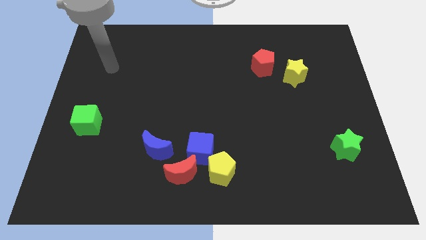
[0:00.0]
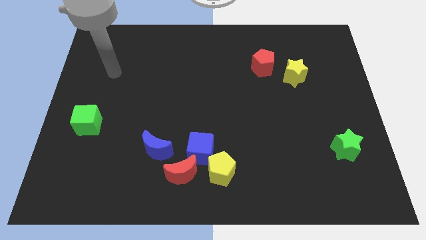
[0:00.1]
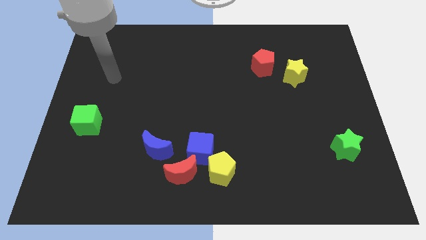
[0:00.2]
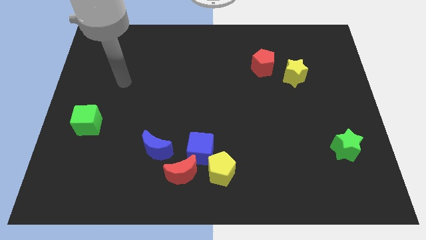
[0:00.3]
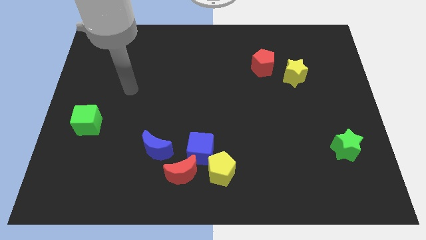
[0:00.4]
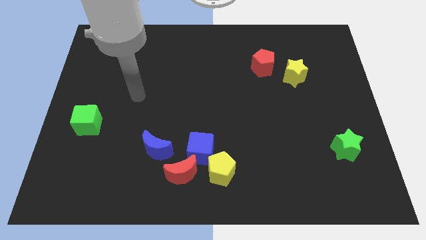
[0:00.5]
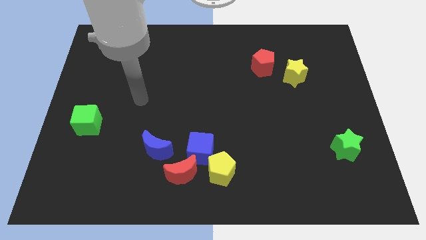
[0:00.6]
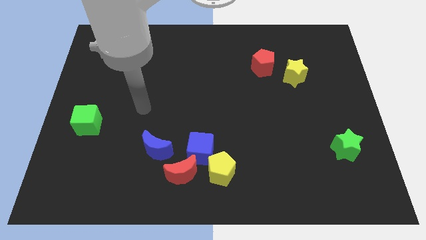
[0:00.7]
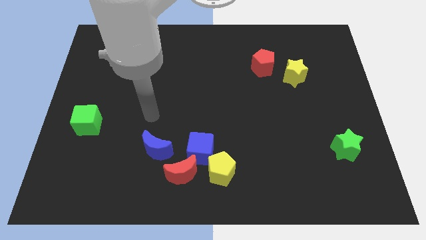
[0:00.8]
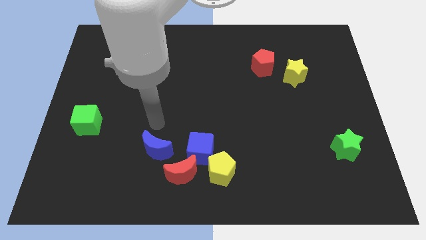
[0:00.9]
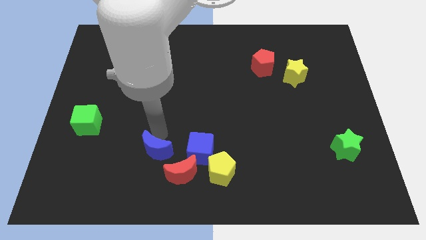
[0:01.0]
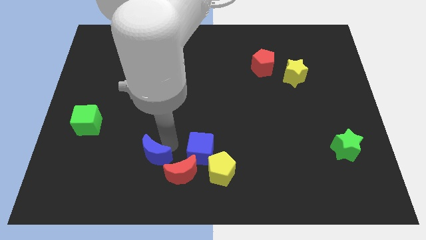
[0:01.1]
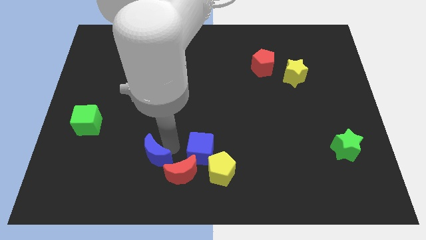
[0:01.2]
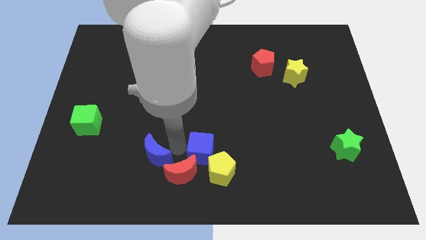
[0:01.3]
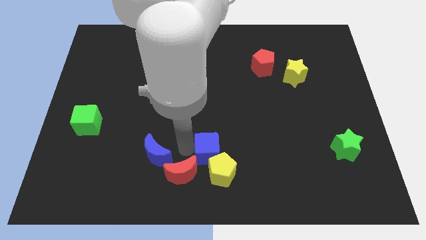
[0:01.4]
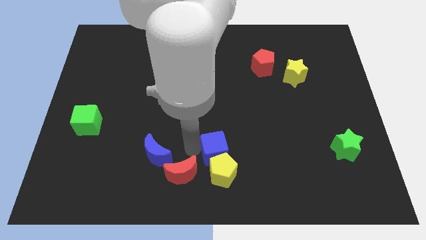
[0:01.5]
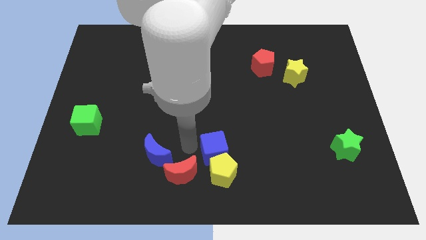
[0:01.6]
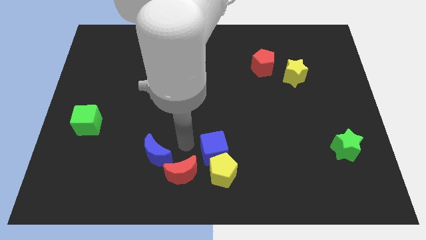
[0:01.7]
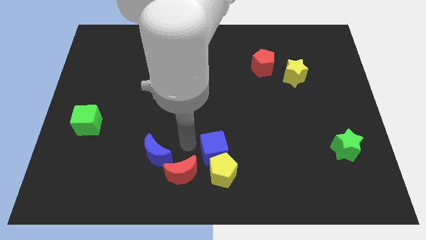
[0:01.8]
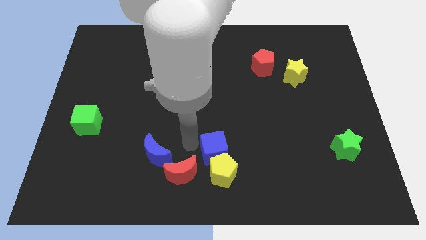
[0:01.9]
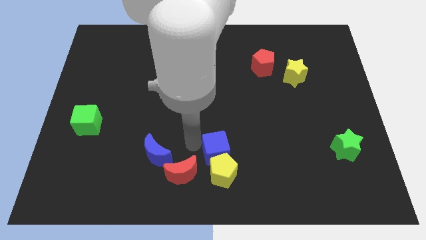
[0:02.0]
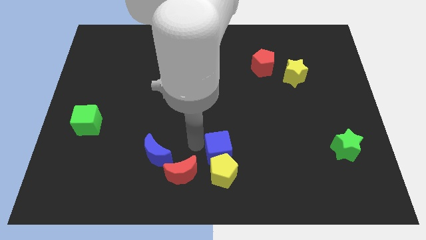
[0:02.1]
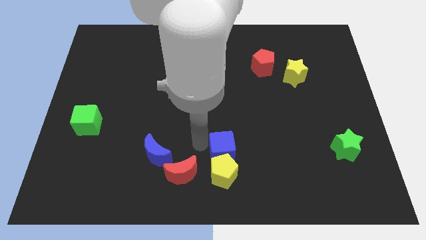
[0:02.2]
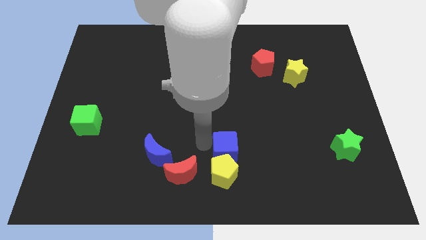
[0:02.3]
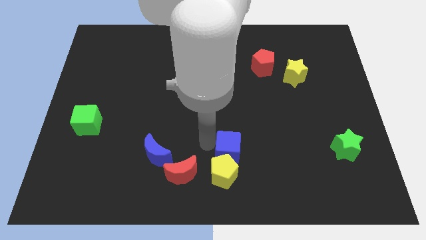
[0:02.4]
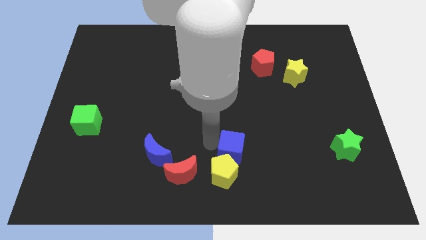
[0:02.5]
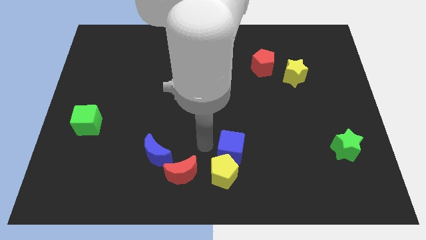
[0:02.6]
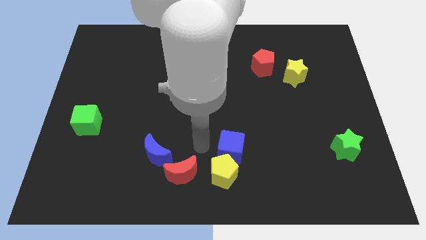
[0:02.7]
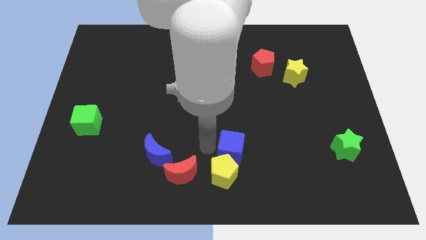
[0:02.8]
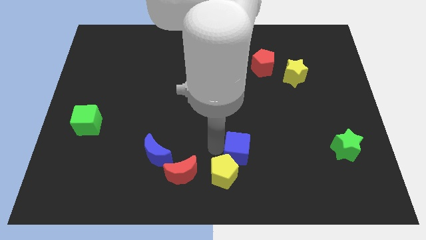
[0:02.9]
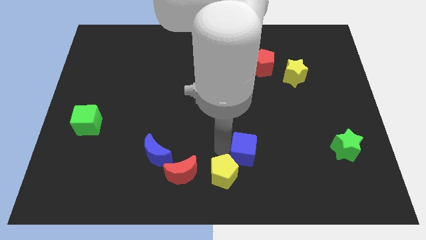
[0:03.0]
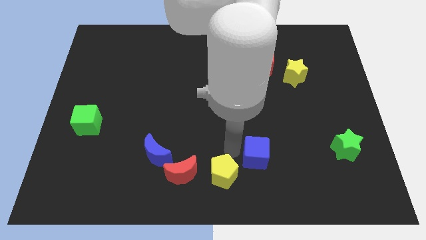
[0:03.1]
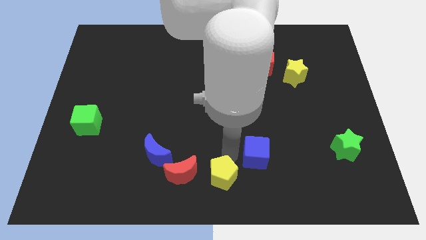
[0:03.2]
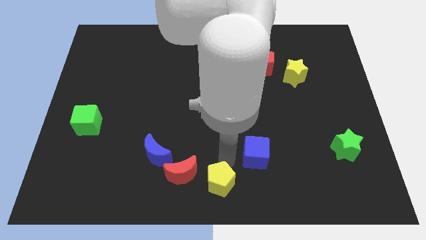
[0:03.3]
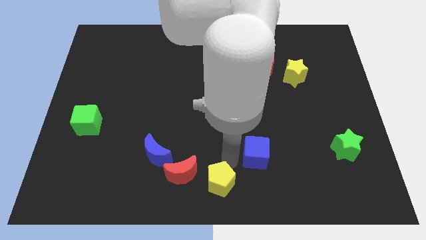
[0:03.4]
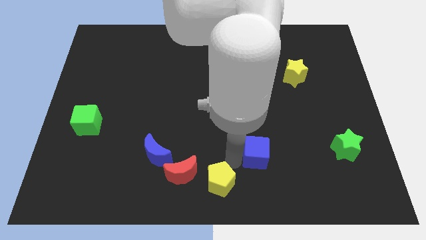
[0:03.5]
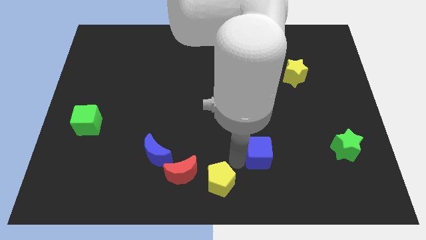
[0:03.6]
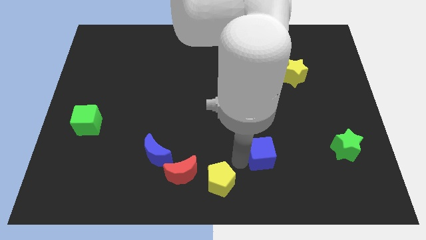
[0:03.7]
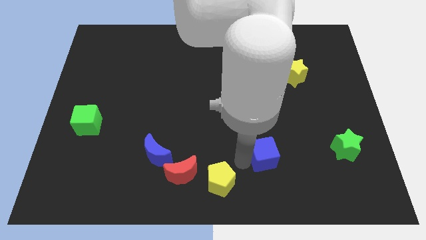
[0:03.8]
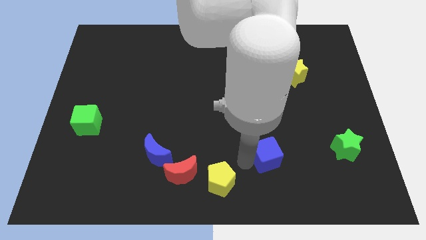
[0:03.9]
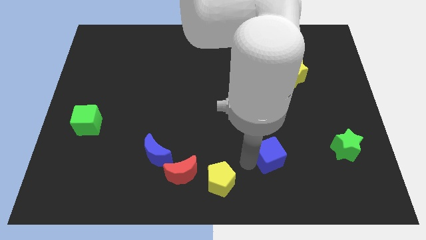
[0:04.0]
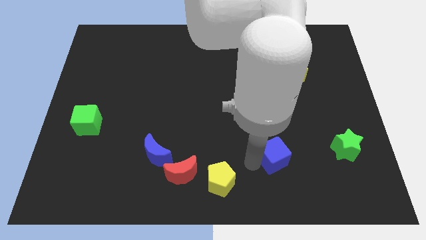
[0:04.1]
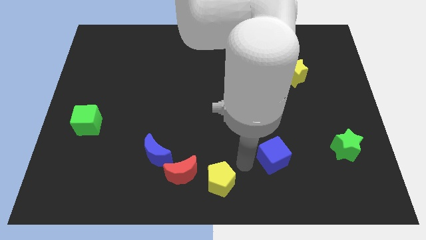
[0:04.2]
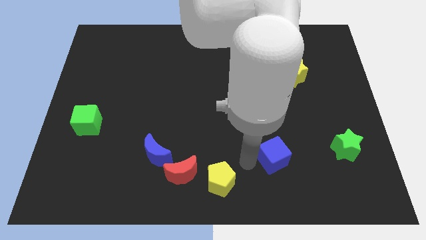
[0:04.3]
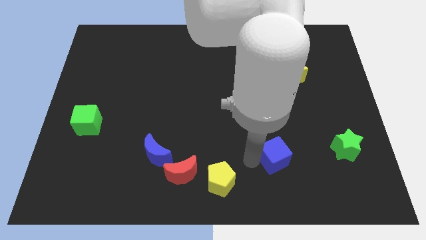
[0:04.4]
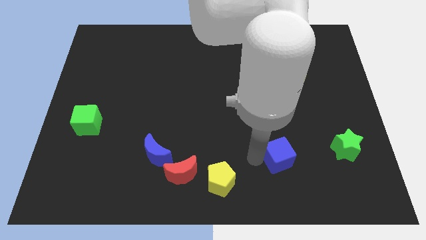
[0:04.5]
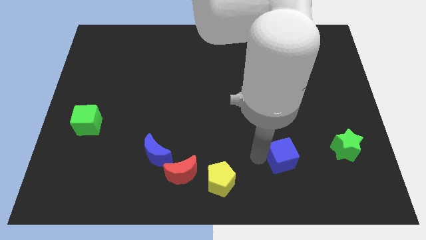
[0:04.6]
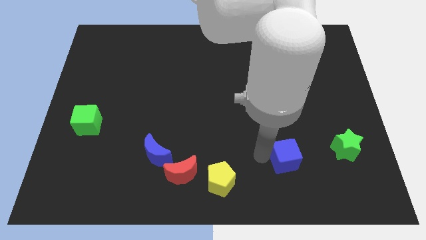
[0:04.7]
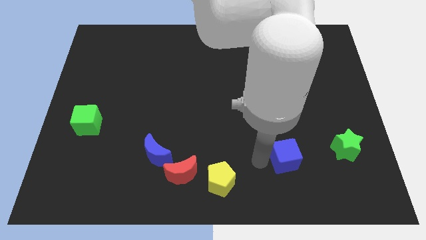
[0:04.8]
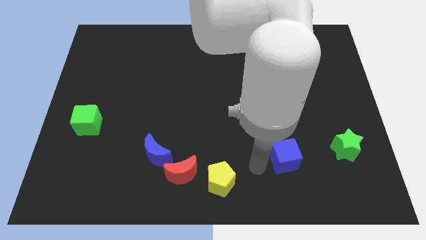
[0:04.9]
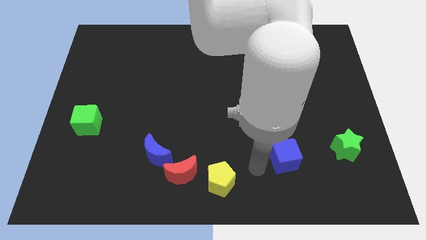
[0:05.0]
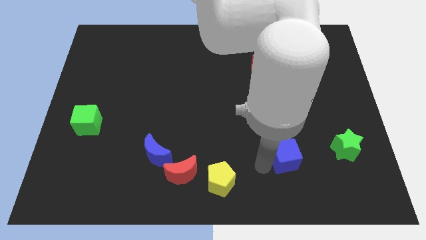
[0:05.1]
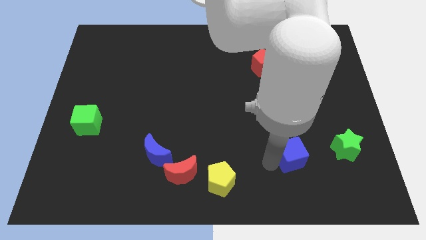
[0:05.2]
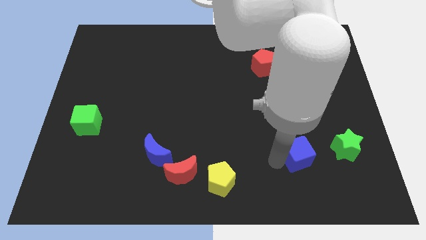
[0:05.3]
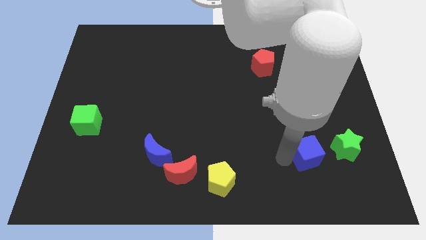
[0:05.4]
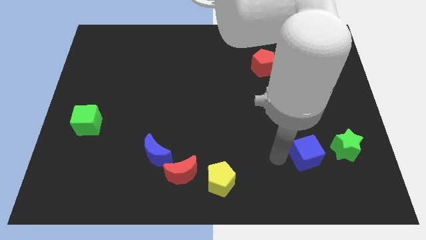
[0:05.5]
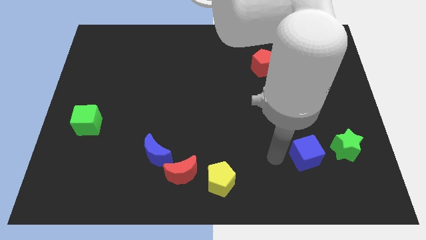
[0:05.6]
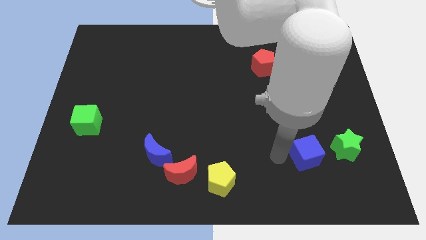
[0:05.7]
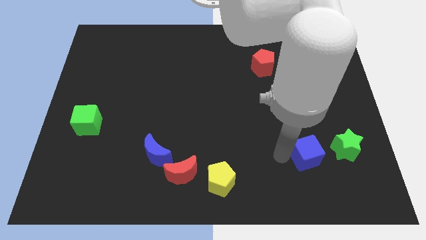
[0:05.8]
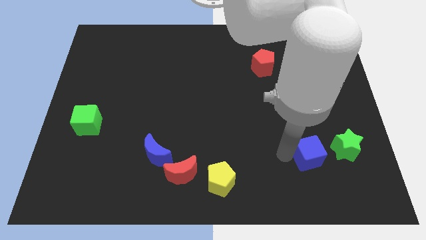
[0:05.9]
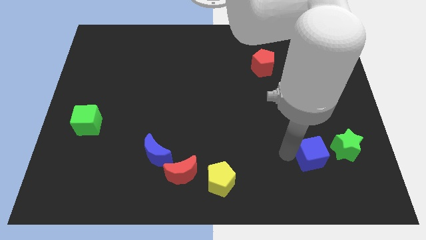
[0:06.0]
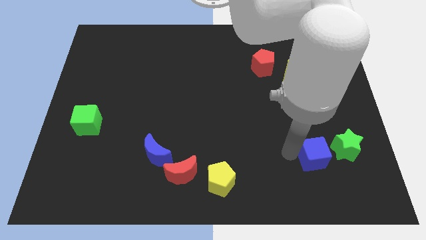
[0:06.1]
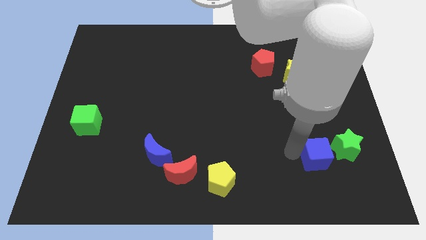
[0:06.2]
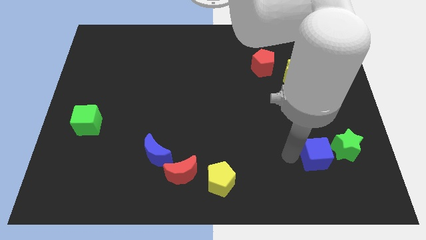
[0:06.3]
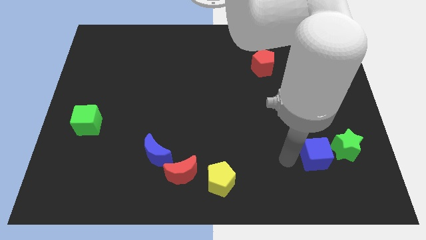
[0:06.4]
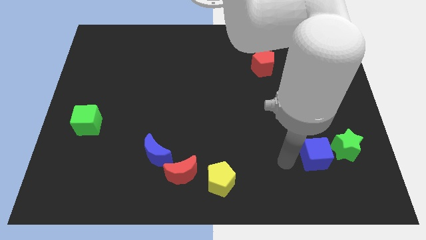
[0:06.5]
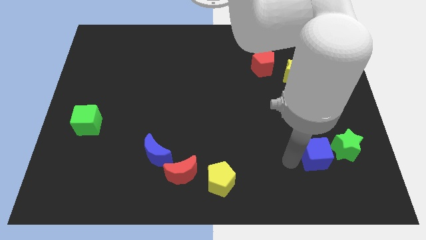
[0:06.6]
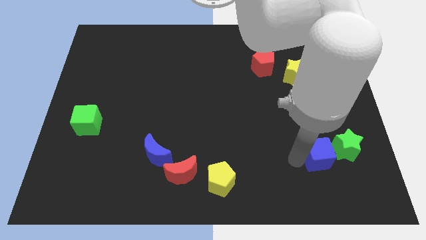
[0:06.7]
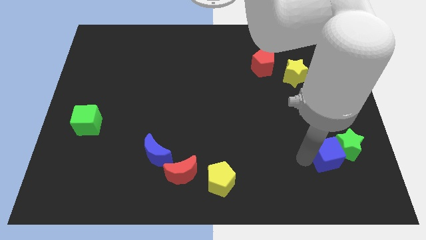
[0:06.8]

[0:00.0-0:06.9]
push the blue cube close to the green star

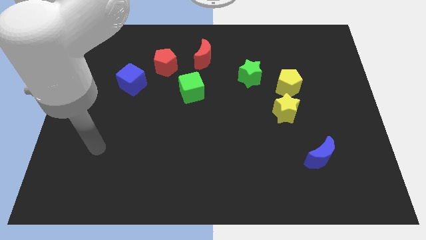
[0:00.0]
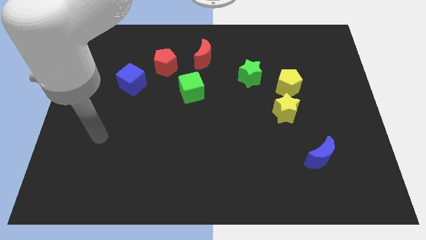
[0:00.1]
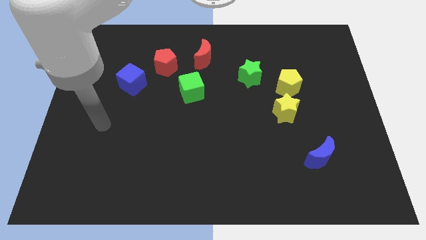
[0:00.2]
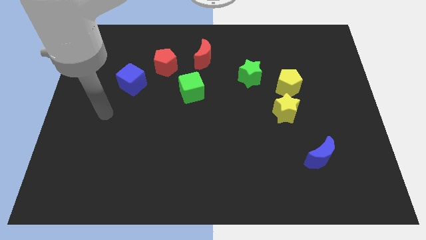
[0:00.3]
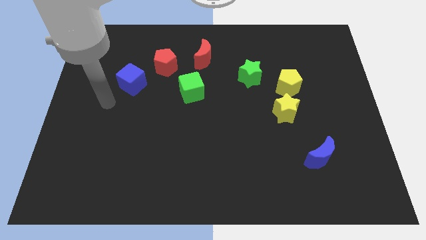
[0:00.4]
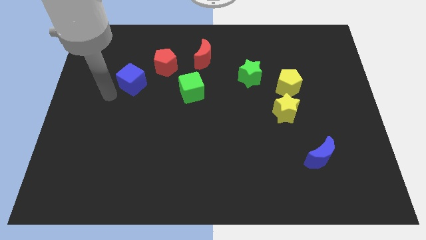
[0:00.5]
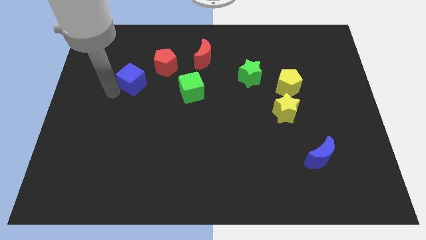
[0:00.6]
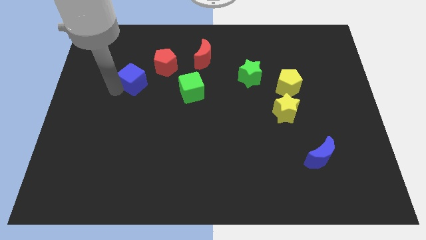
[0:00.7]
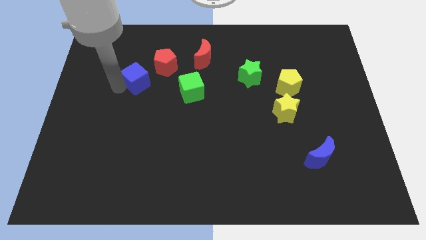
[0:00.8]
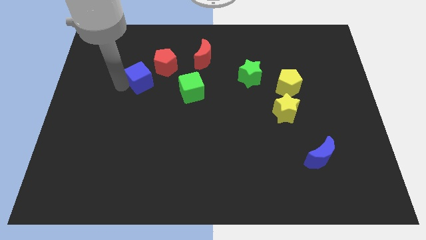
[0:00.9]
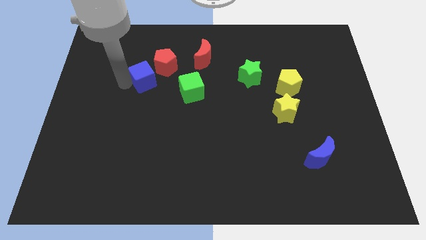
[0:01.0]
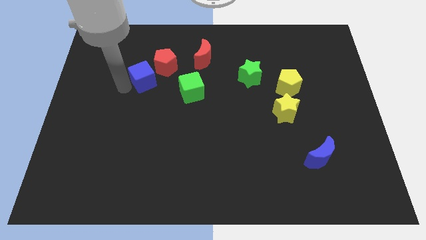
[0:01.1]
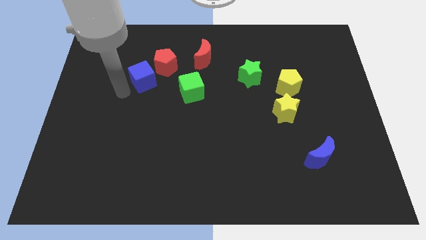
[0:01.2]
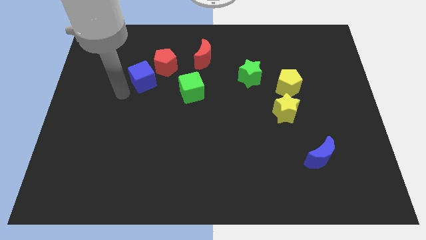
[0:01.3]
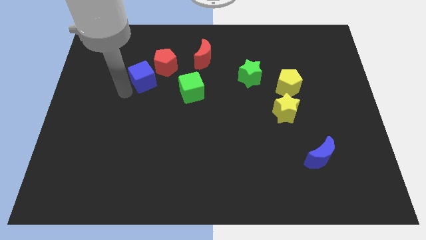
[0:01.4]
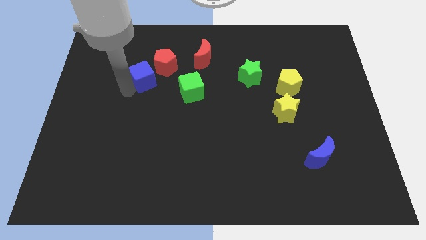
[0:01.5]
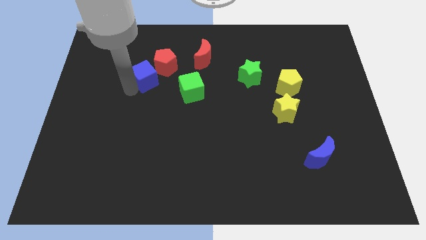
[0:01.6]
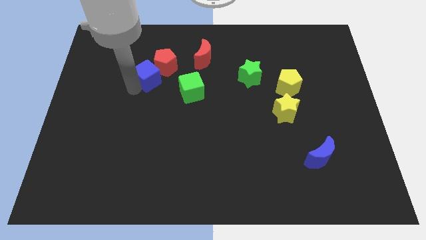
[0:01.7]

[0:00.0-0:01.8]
push the blue cube to the red pentagon
